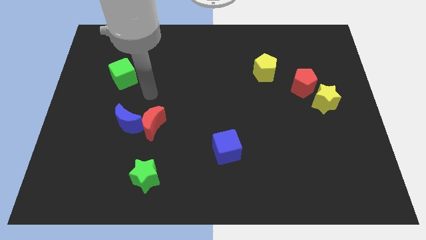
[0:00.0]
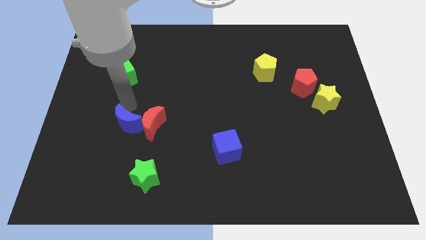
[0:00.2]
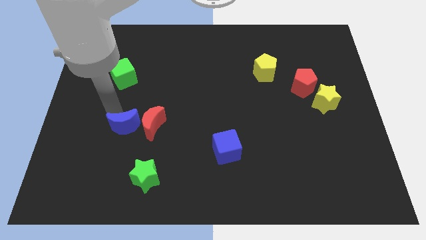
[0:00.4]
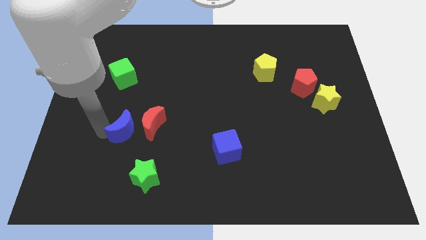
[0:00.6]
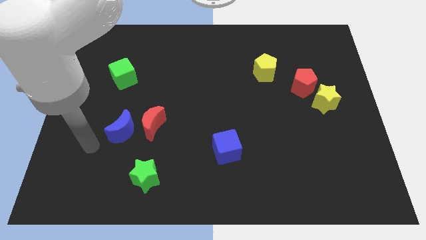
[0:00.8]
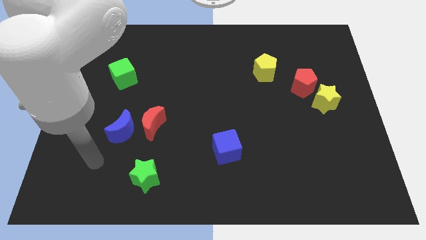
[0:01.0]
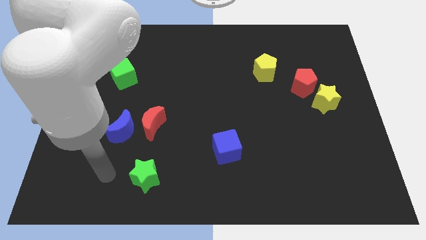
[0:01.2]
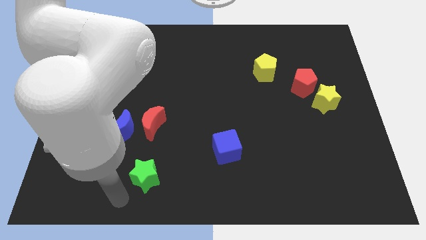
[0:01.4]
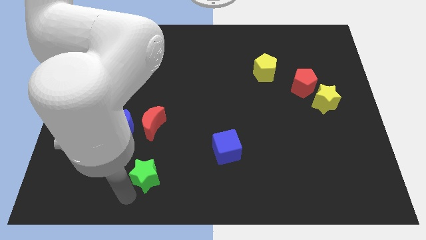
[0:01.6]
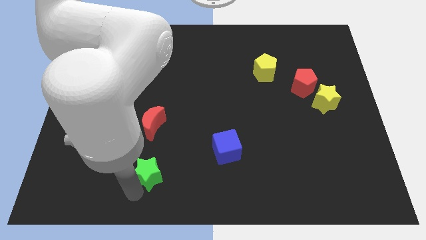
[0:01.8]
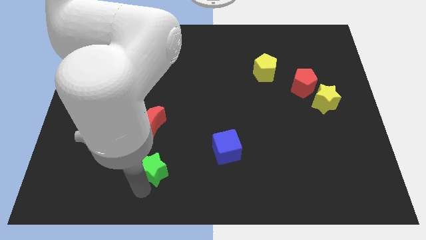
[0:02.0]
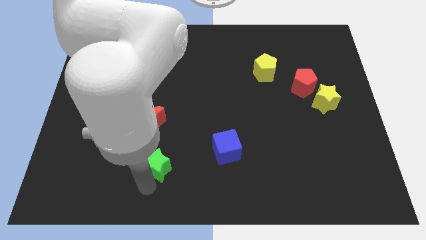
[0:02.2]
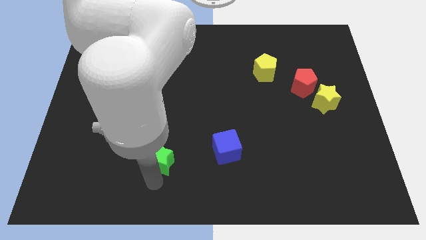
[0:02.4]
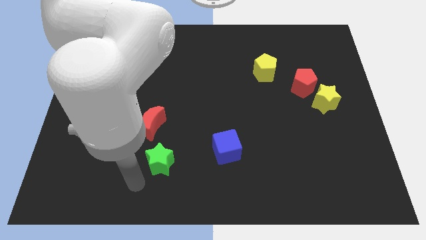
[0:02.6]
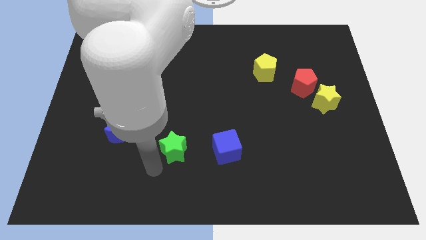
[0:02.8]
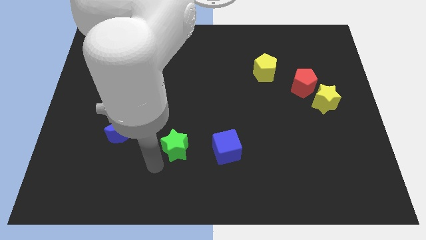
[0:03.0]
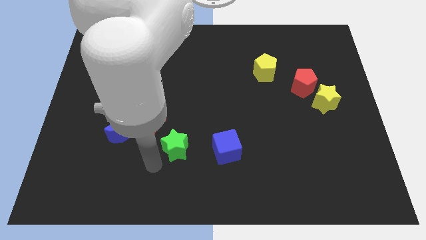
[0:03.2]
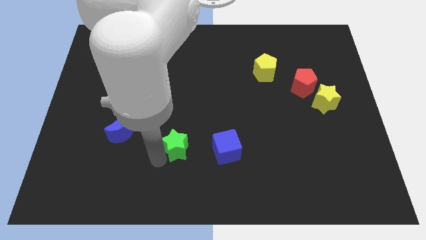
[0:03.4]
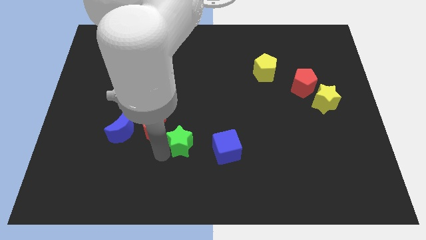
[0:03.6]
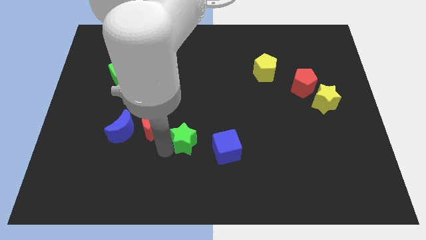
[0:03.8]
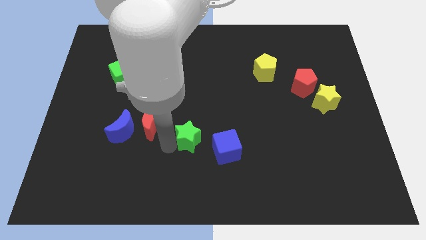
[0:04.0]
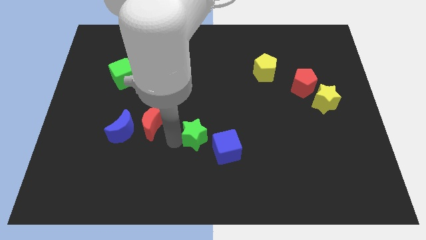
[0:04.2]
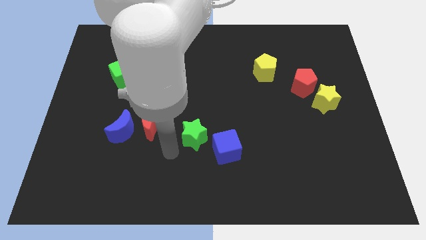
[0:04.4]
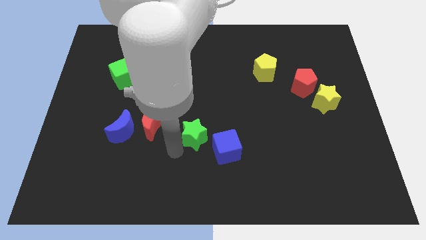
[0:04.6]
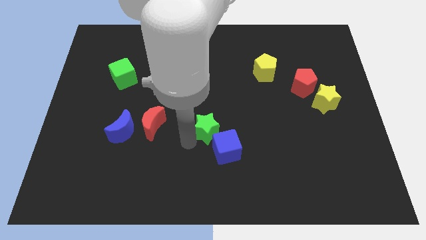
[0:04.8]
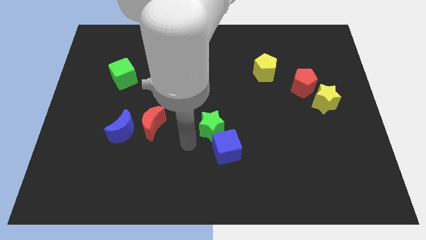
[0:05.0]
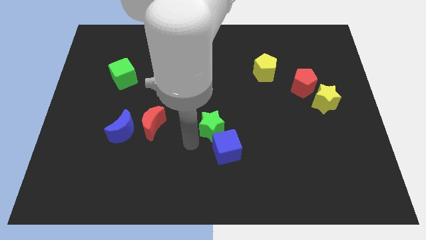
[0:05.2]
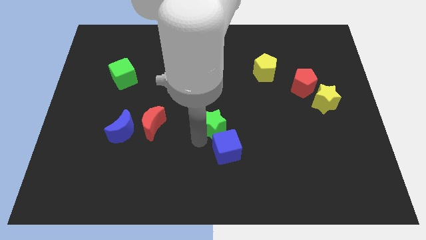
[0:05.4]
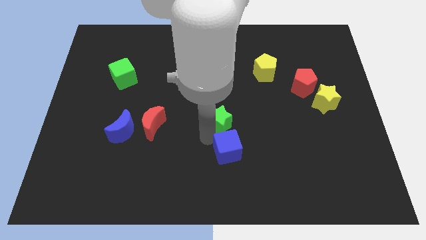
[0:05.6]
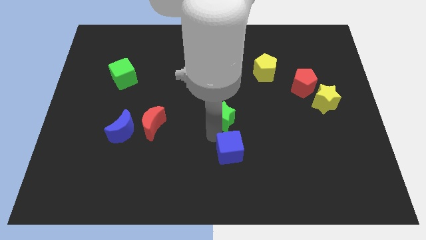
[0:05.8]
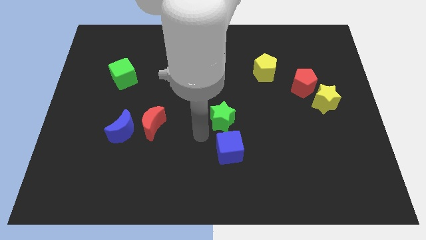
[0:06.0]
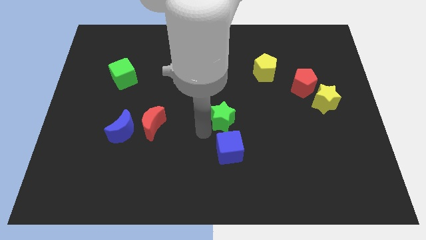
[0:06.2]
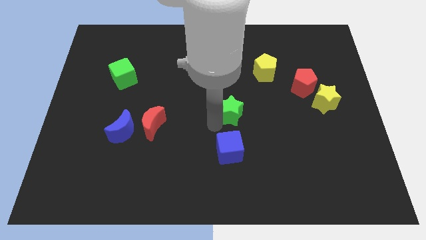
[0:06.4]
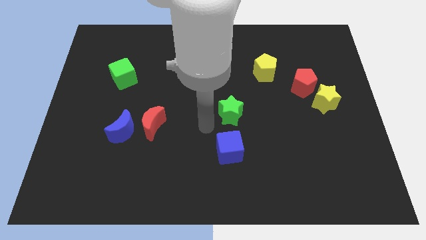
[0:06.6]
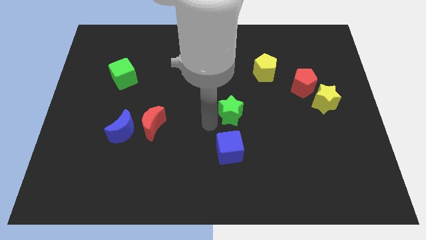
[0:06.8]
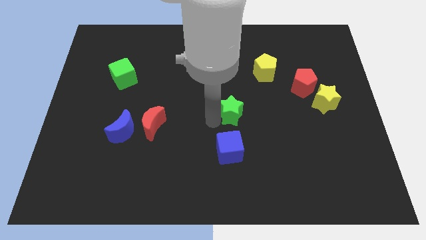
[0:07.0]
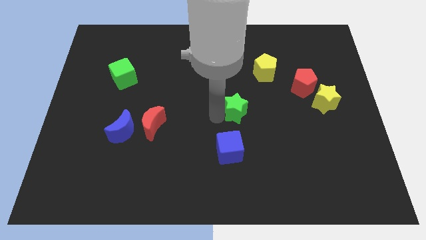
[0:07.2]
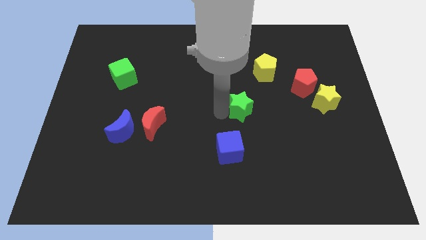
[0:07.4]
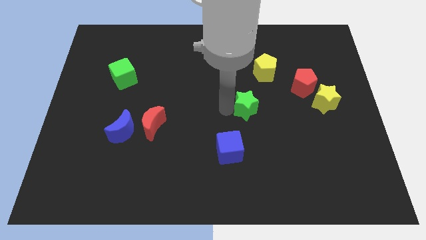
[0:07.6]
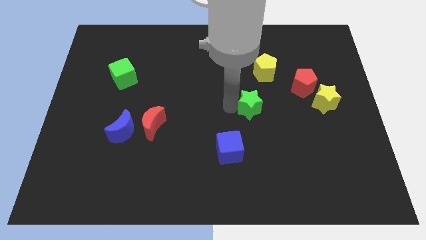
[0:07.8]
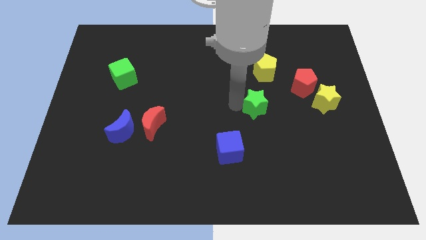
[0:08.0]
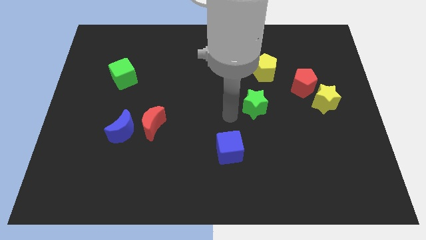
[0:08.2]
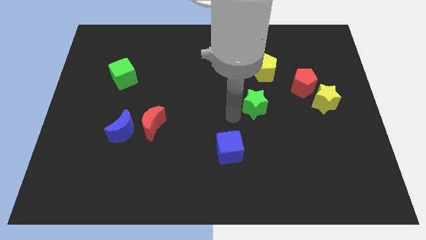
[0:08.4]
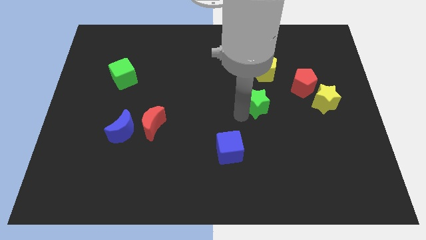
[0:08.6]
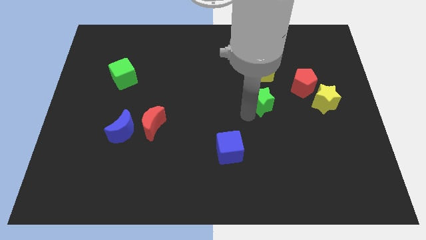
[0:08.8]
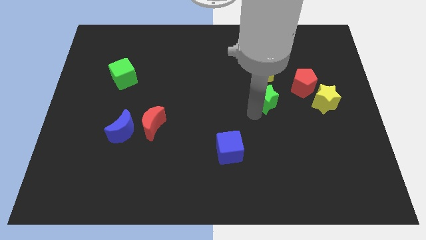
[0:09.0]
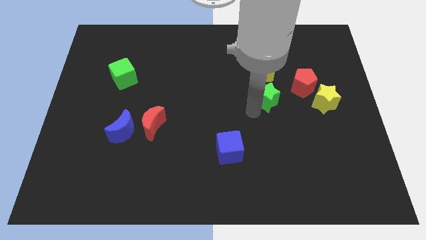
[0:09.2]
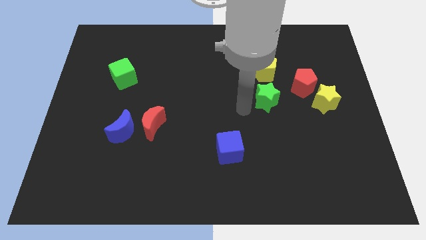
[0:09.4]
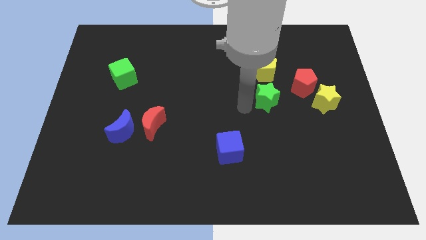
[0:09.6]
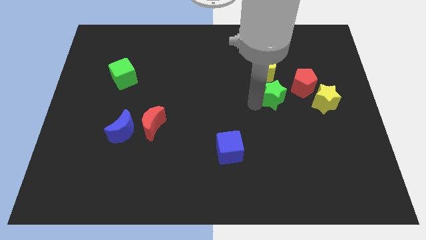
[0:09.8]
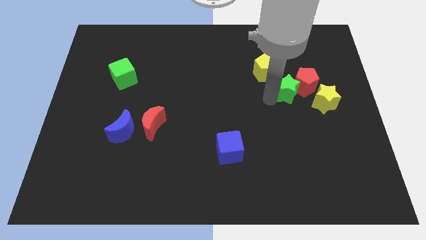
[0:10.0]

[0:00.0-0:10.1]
push the green star next to the red pentagon

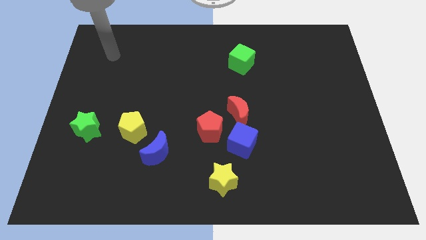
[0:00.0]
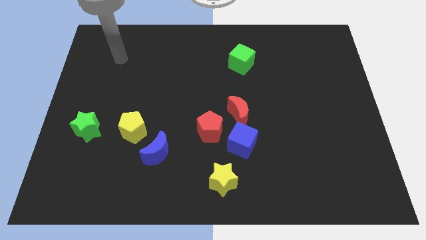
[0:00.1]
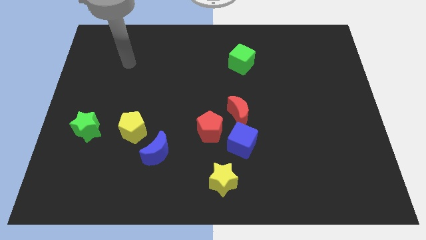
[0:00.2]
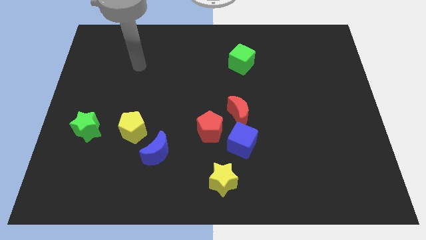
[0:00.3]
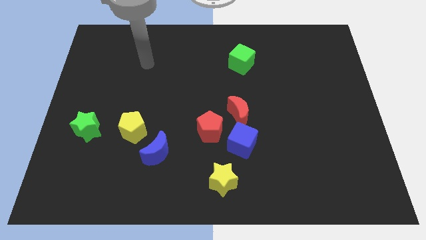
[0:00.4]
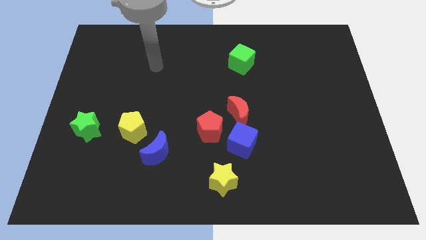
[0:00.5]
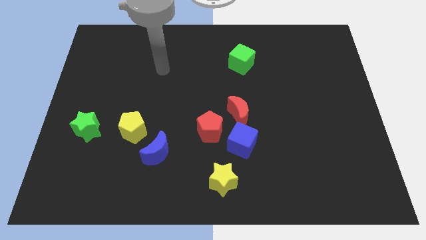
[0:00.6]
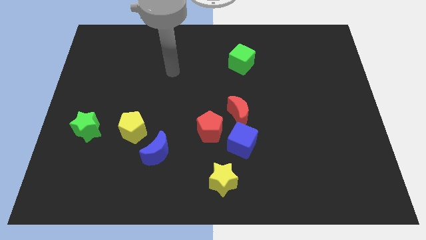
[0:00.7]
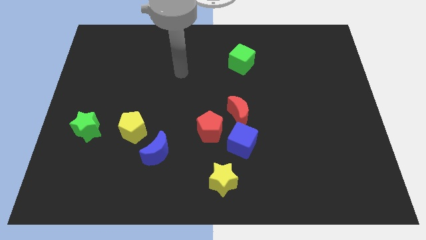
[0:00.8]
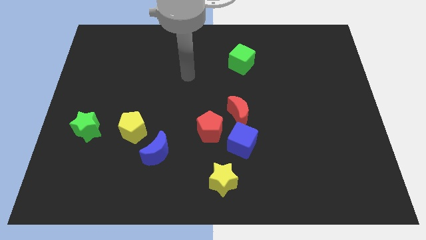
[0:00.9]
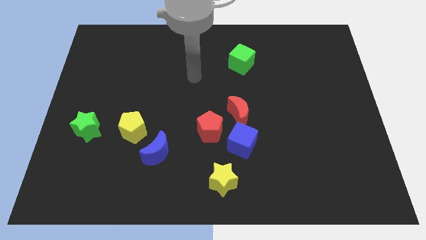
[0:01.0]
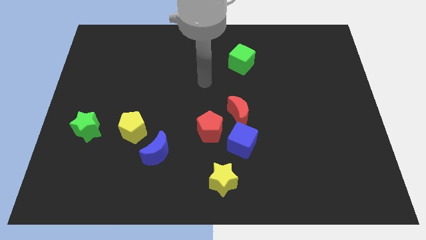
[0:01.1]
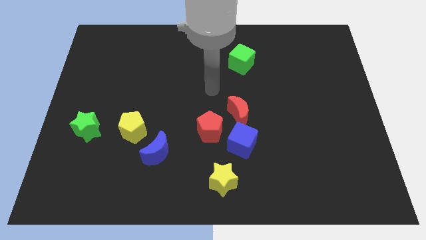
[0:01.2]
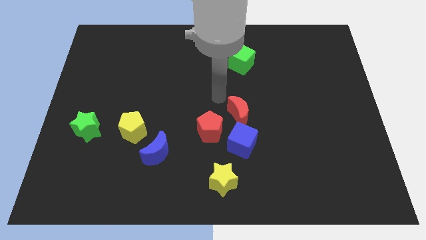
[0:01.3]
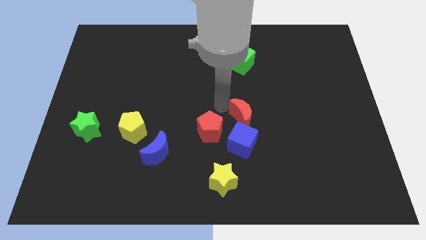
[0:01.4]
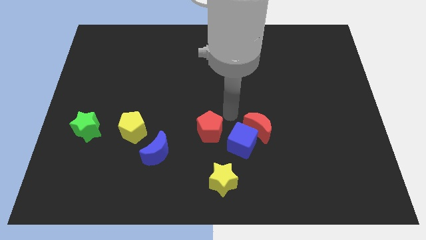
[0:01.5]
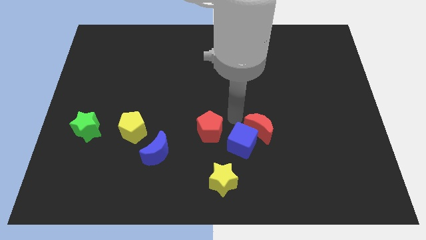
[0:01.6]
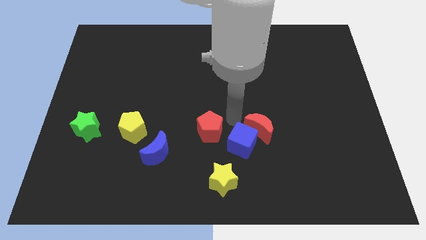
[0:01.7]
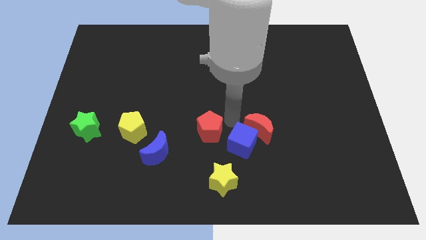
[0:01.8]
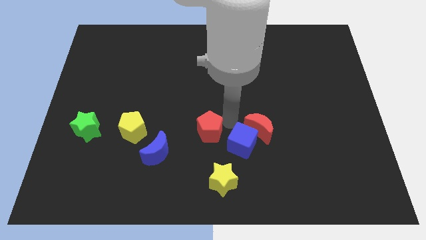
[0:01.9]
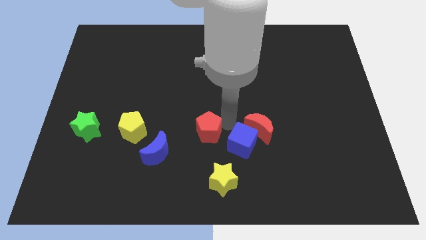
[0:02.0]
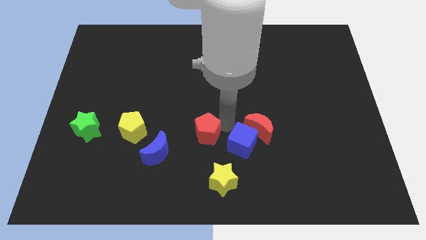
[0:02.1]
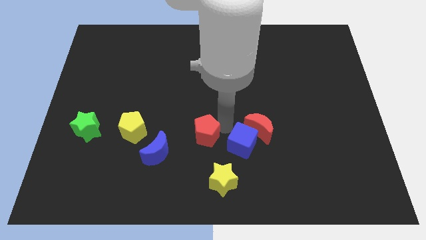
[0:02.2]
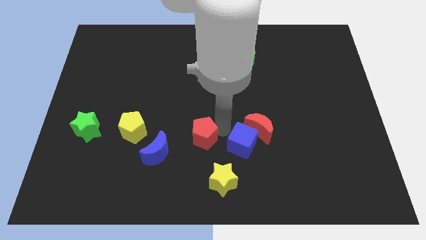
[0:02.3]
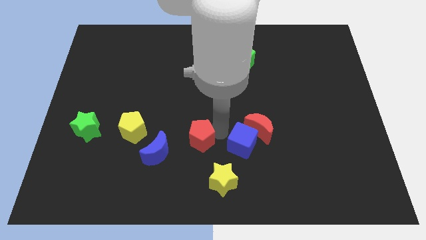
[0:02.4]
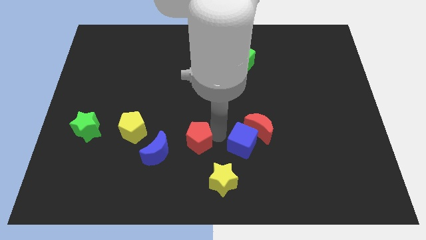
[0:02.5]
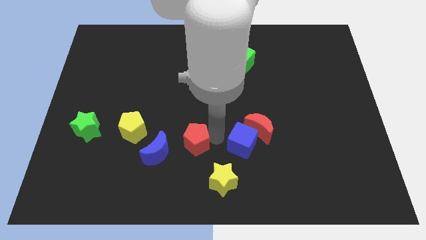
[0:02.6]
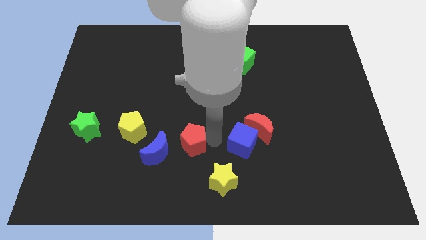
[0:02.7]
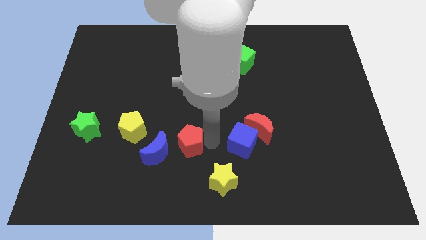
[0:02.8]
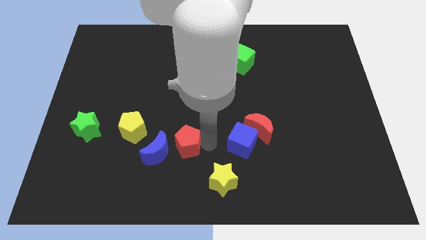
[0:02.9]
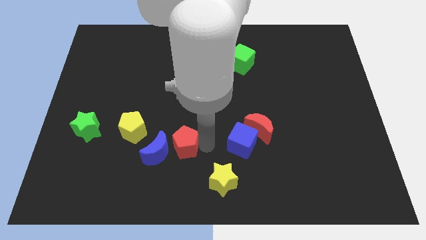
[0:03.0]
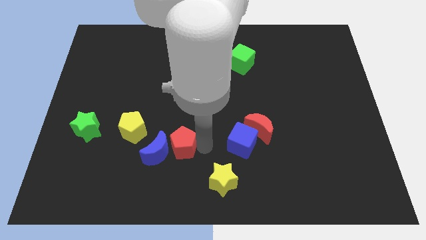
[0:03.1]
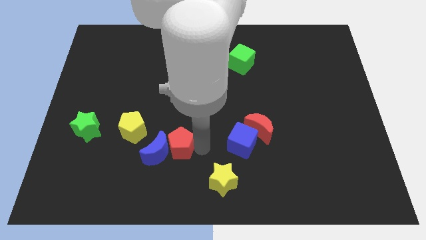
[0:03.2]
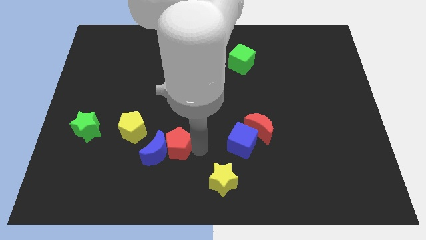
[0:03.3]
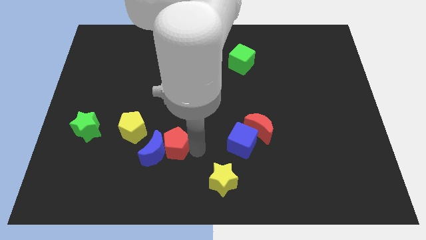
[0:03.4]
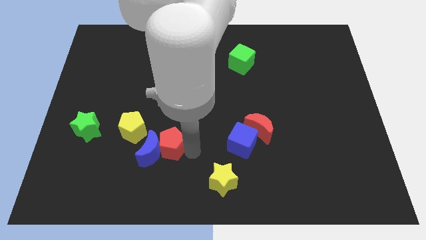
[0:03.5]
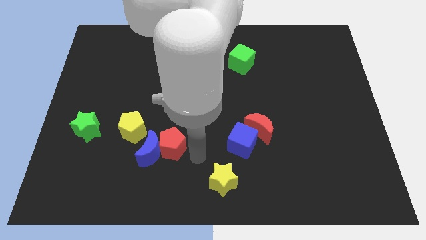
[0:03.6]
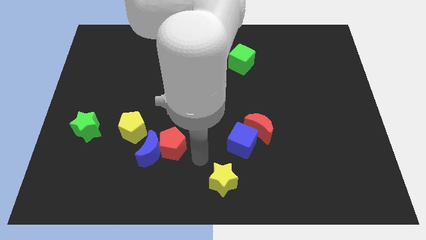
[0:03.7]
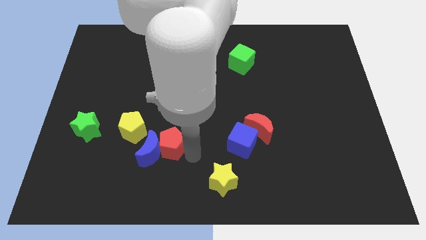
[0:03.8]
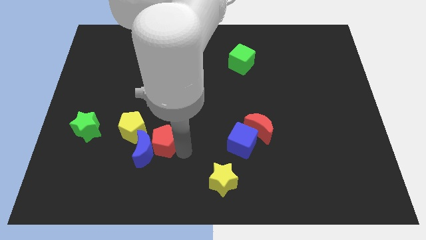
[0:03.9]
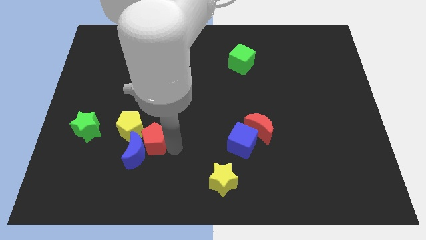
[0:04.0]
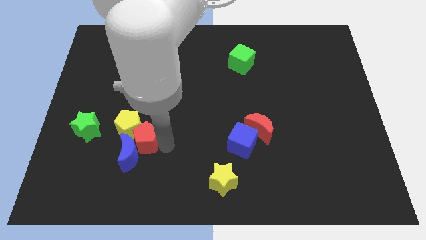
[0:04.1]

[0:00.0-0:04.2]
move the red pentagon to the yellow pentagon
